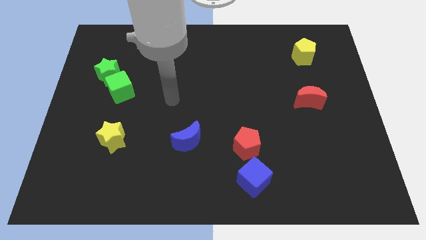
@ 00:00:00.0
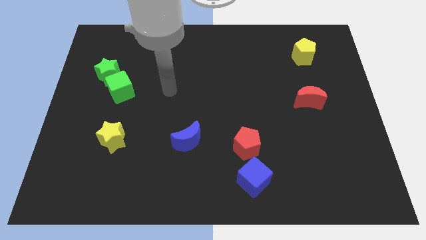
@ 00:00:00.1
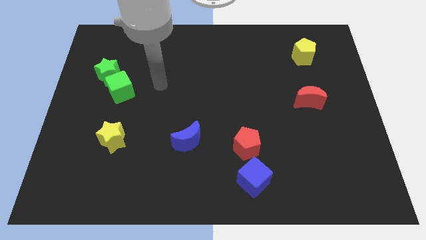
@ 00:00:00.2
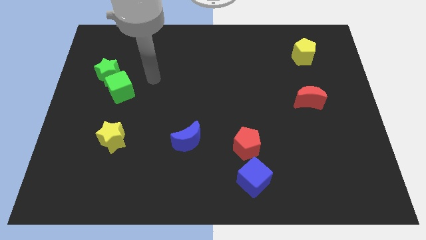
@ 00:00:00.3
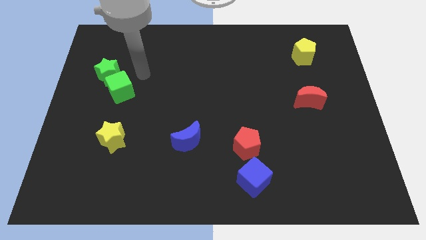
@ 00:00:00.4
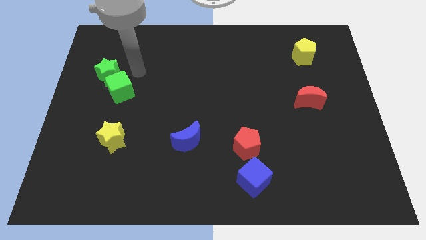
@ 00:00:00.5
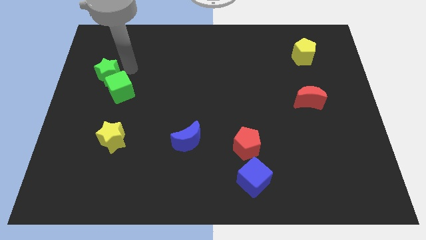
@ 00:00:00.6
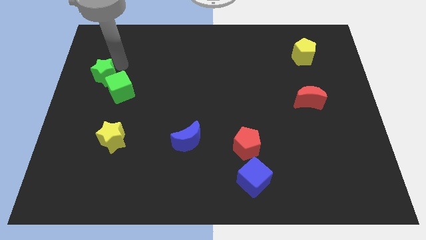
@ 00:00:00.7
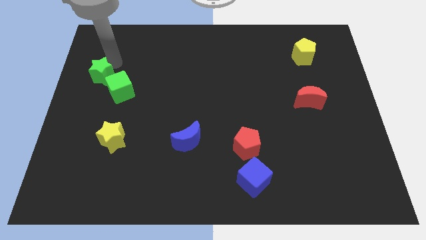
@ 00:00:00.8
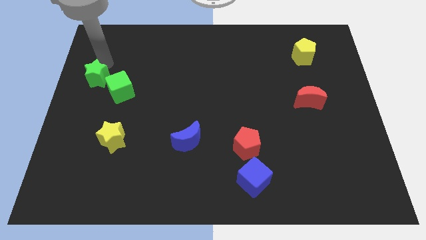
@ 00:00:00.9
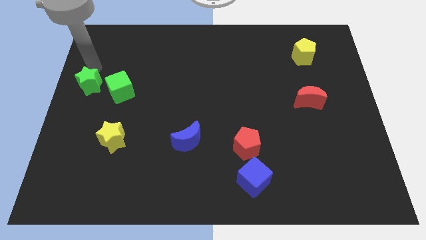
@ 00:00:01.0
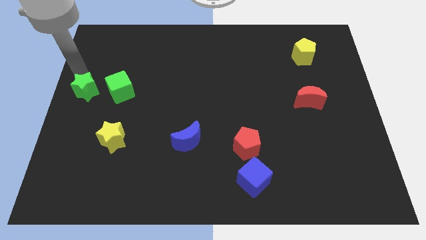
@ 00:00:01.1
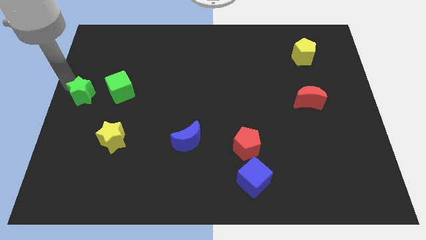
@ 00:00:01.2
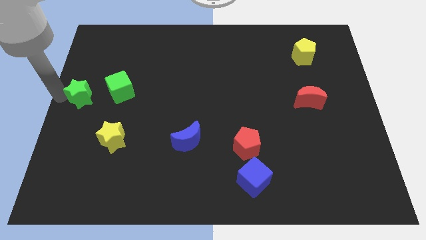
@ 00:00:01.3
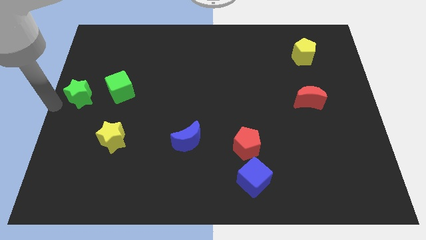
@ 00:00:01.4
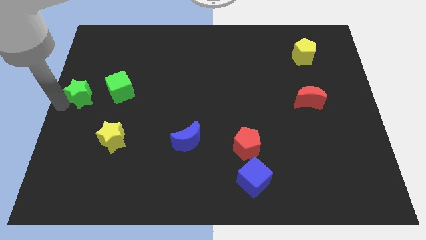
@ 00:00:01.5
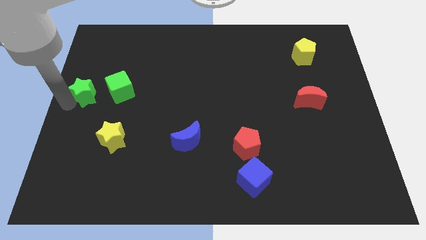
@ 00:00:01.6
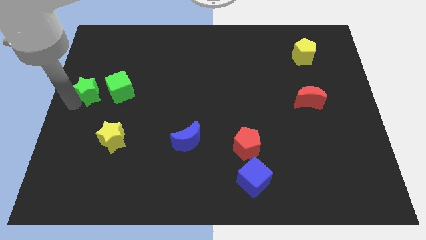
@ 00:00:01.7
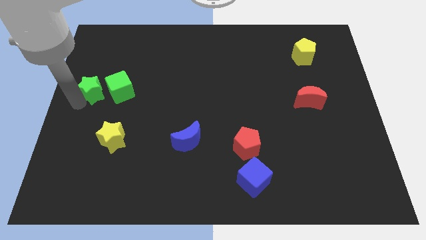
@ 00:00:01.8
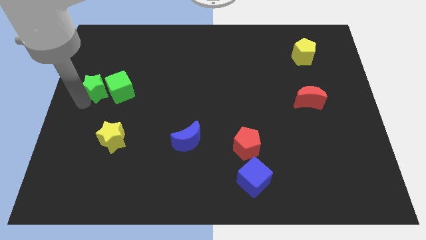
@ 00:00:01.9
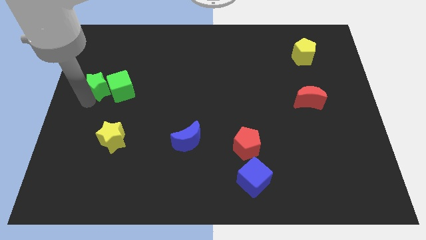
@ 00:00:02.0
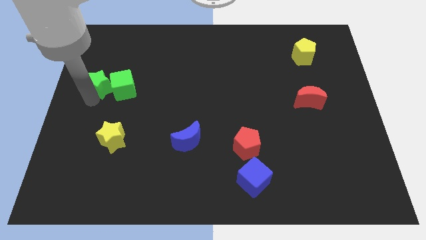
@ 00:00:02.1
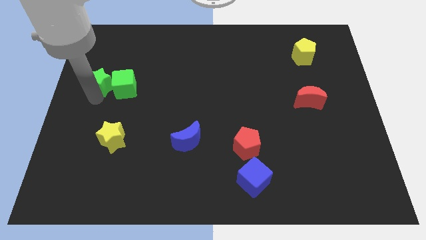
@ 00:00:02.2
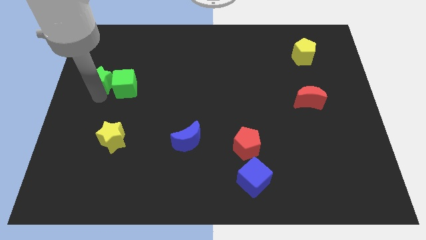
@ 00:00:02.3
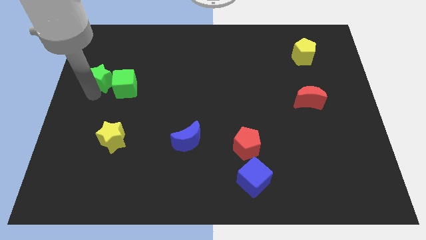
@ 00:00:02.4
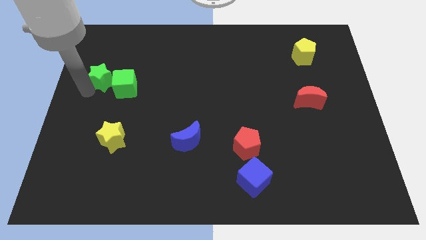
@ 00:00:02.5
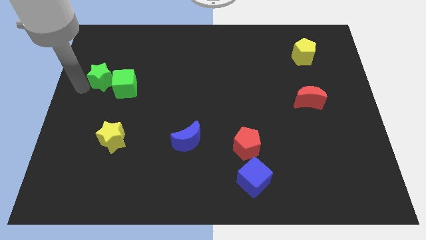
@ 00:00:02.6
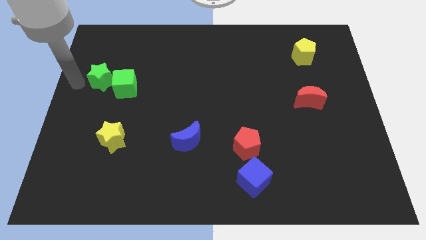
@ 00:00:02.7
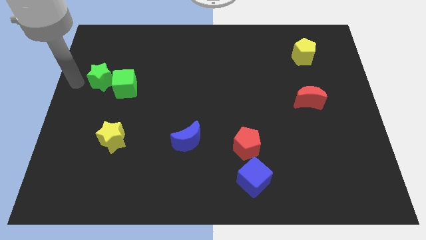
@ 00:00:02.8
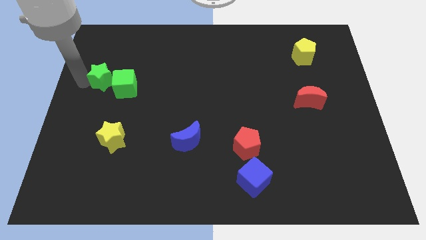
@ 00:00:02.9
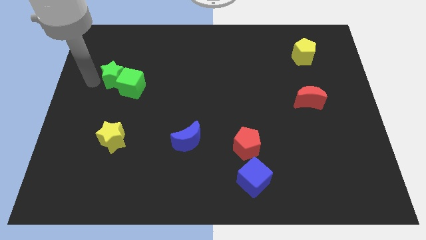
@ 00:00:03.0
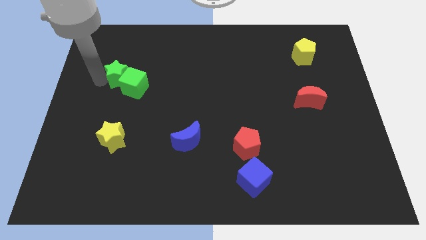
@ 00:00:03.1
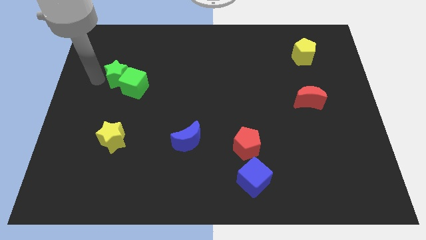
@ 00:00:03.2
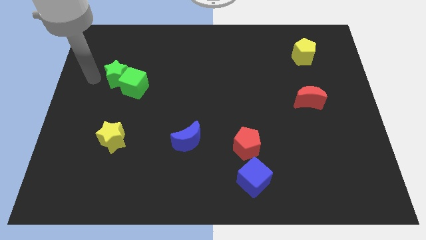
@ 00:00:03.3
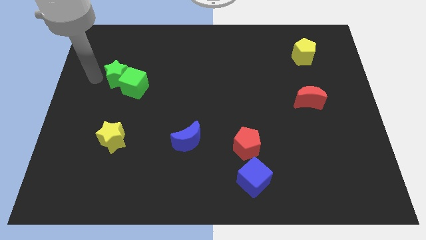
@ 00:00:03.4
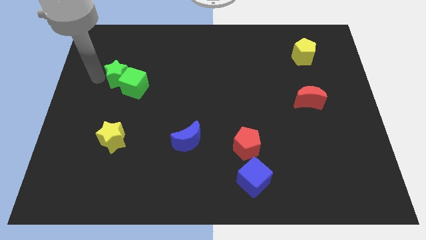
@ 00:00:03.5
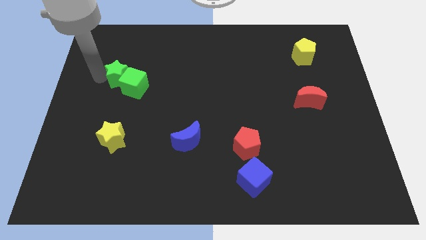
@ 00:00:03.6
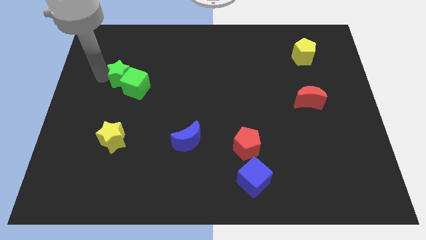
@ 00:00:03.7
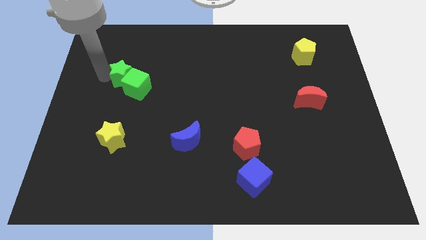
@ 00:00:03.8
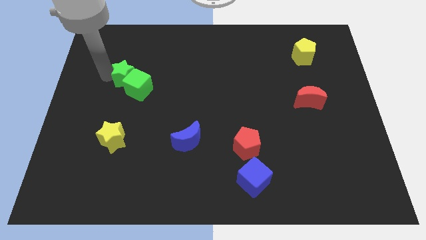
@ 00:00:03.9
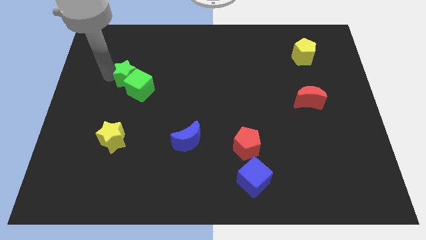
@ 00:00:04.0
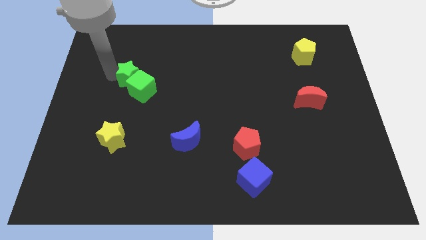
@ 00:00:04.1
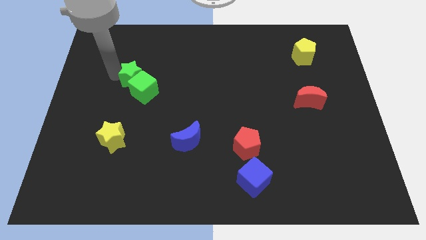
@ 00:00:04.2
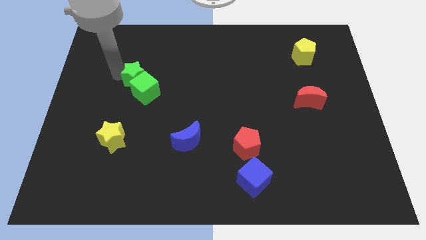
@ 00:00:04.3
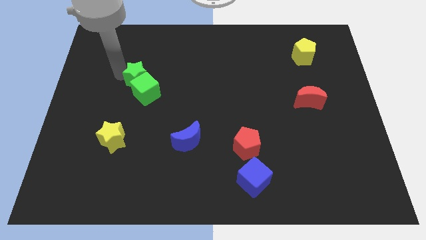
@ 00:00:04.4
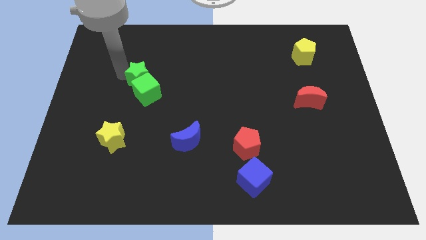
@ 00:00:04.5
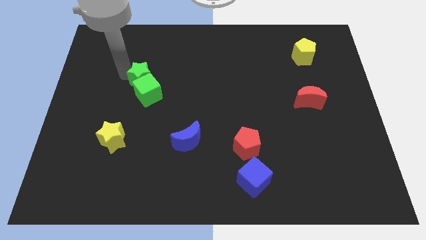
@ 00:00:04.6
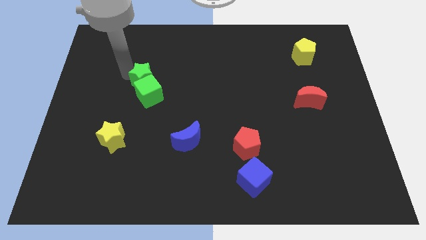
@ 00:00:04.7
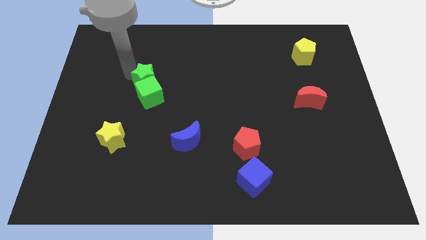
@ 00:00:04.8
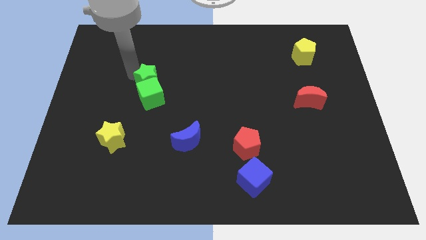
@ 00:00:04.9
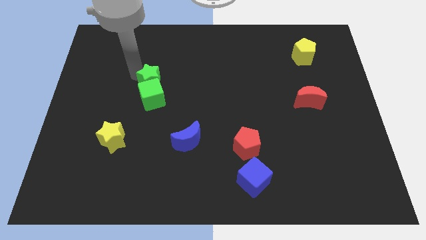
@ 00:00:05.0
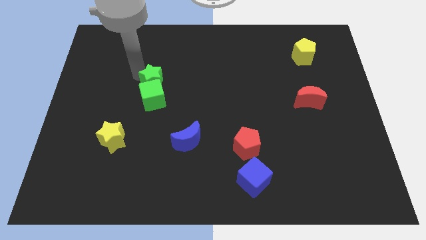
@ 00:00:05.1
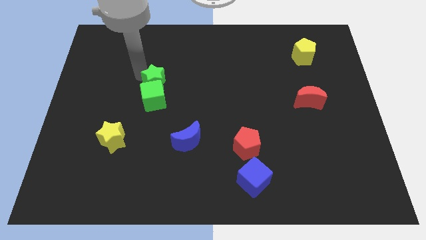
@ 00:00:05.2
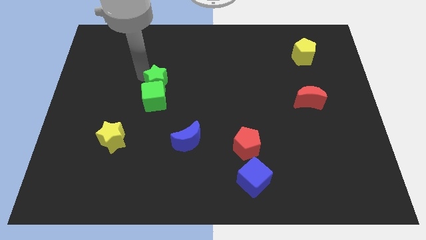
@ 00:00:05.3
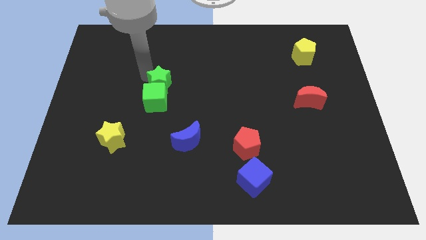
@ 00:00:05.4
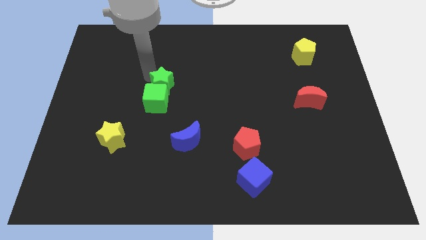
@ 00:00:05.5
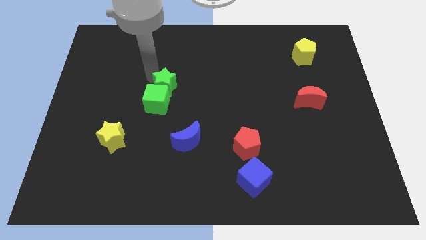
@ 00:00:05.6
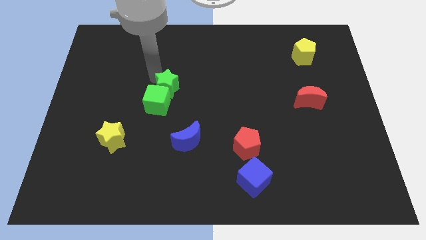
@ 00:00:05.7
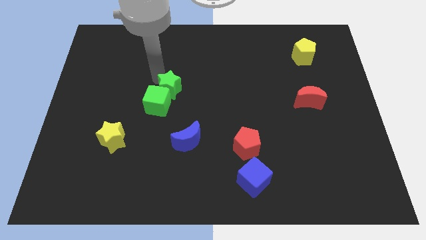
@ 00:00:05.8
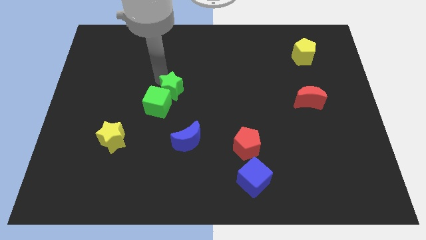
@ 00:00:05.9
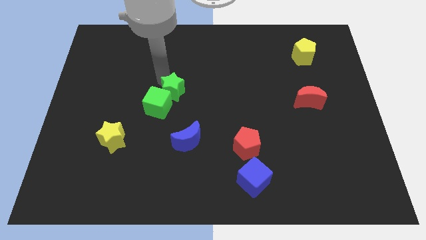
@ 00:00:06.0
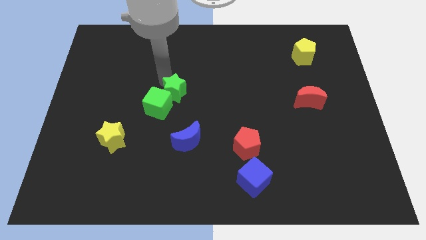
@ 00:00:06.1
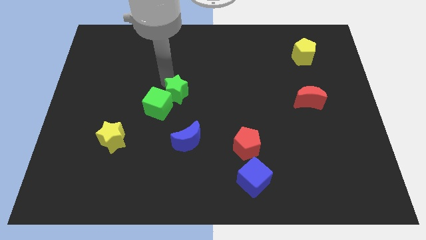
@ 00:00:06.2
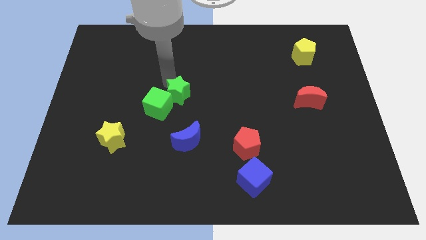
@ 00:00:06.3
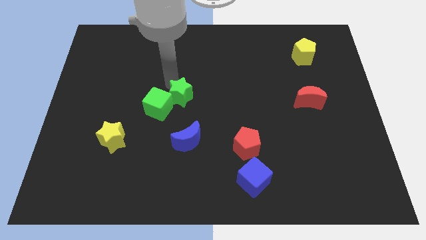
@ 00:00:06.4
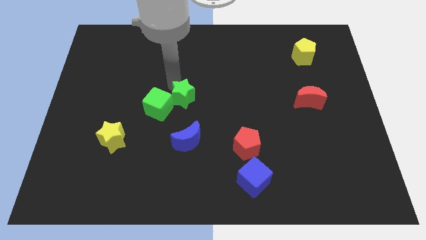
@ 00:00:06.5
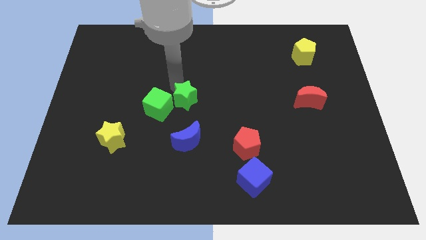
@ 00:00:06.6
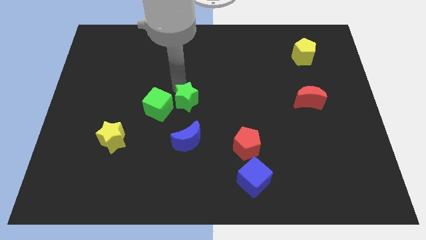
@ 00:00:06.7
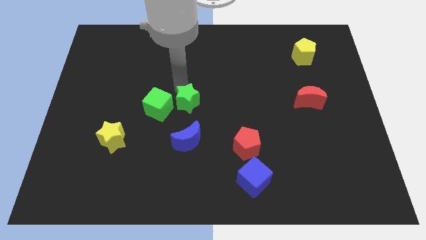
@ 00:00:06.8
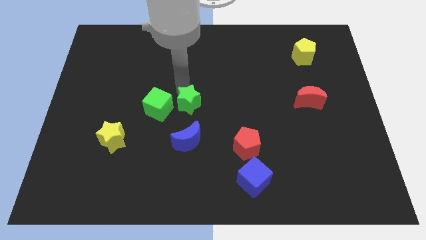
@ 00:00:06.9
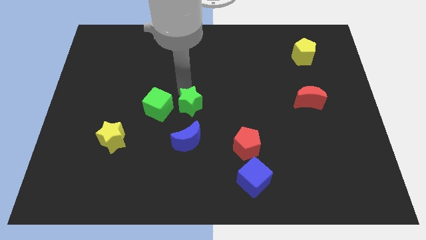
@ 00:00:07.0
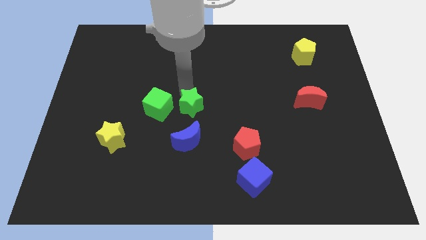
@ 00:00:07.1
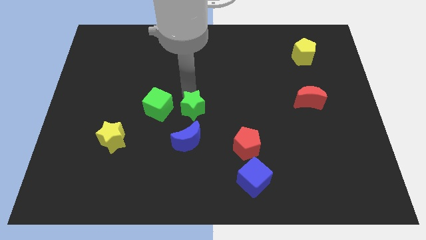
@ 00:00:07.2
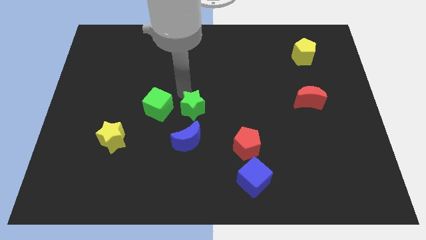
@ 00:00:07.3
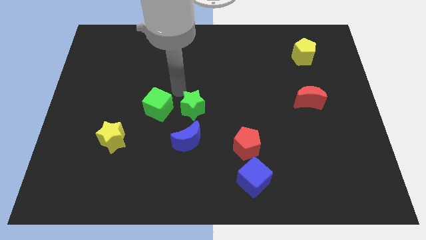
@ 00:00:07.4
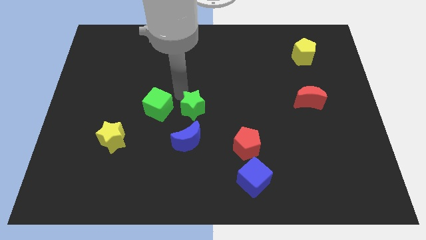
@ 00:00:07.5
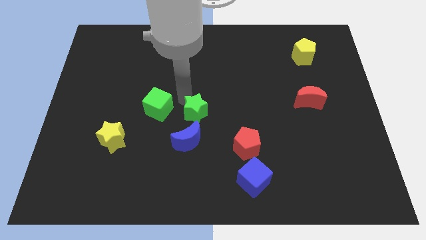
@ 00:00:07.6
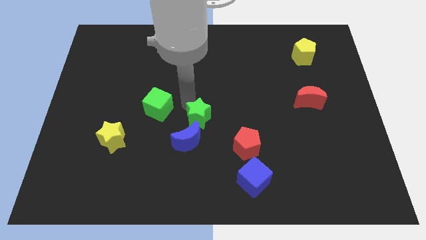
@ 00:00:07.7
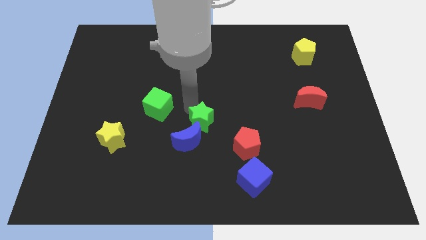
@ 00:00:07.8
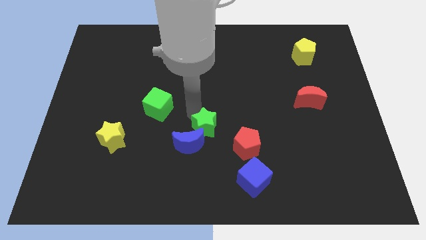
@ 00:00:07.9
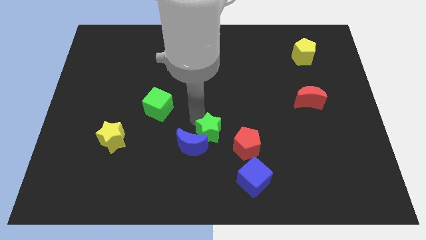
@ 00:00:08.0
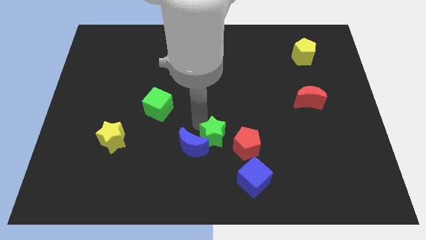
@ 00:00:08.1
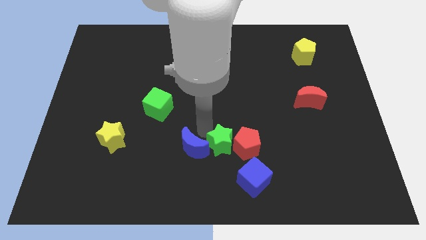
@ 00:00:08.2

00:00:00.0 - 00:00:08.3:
put the green star to the red pentagon
